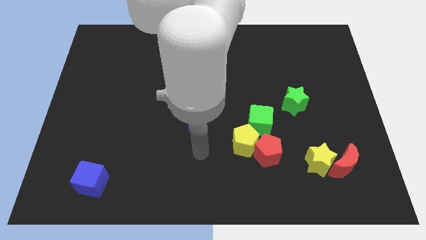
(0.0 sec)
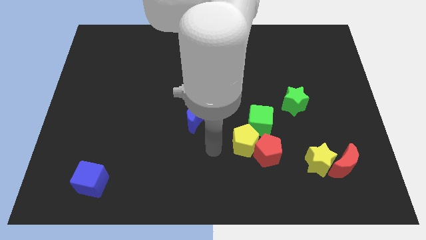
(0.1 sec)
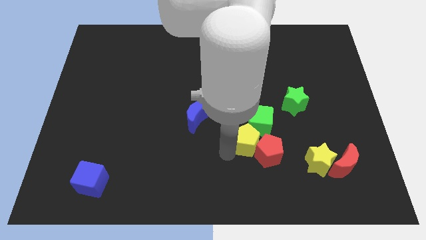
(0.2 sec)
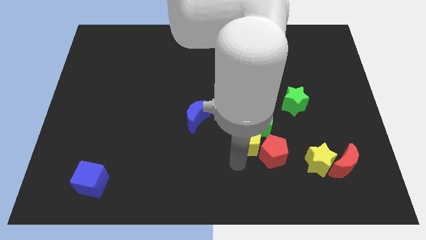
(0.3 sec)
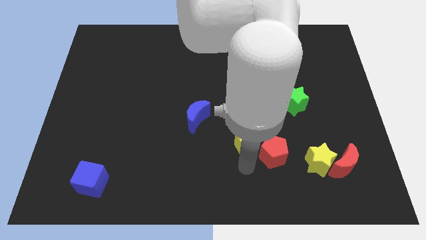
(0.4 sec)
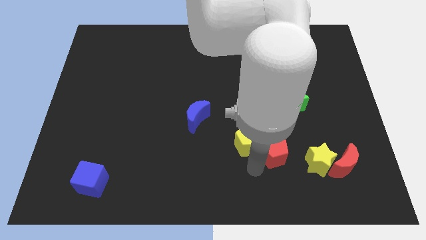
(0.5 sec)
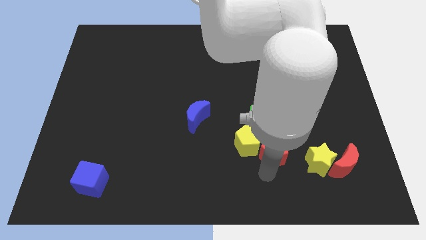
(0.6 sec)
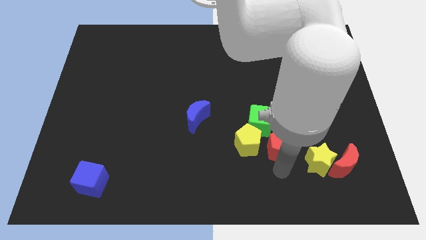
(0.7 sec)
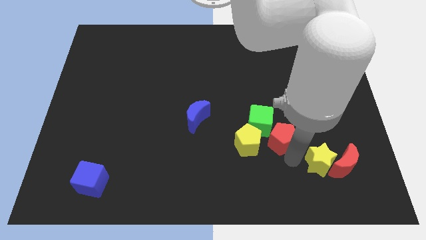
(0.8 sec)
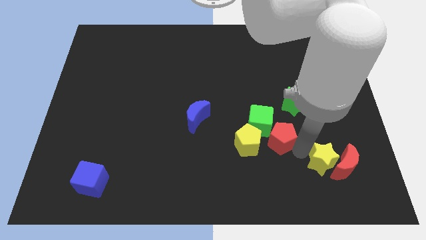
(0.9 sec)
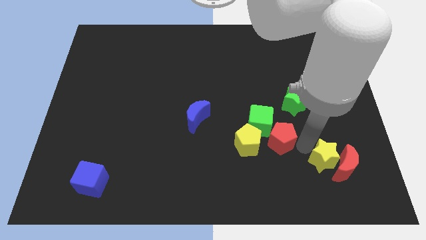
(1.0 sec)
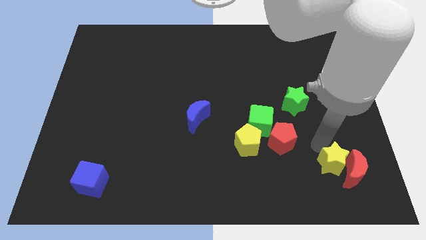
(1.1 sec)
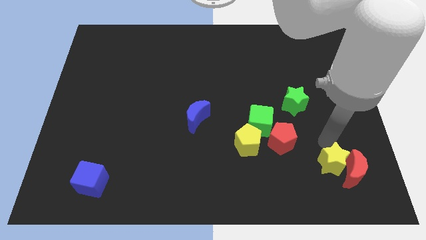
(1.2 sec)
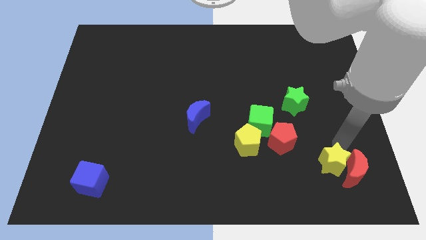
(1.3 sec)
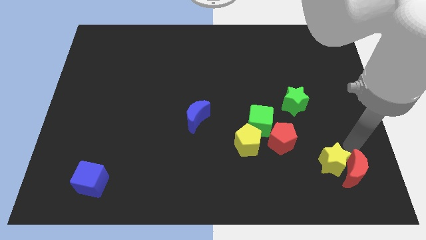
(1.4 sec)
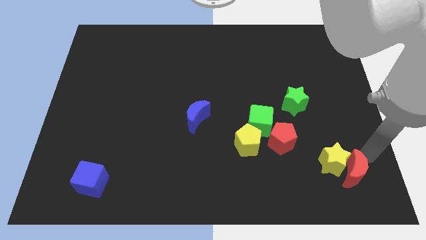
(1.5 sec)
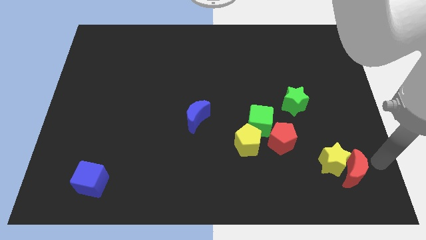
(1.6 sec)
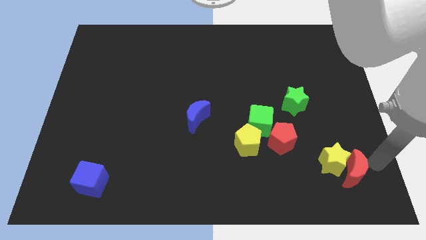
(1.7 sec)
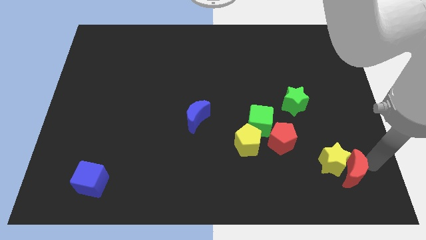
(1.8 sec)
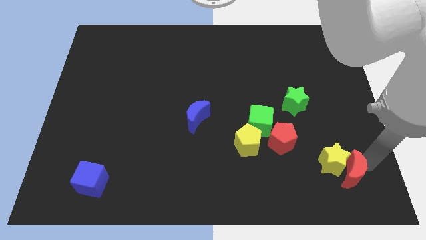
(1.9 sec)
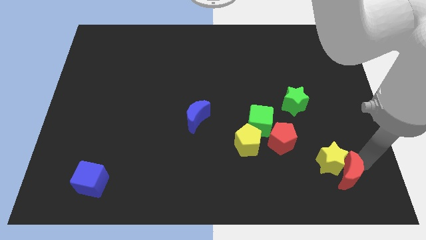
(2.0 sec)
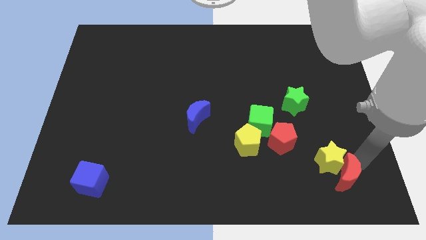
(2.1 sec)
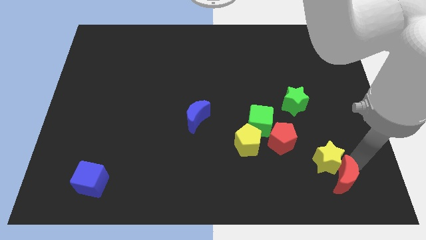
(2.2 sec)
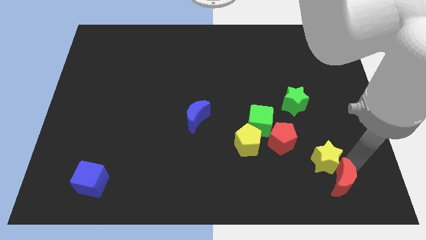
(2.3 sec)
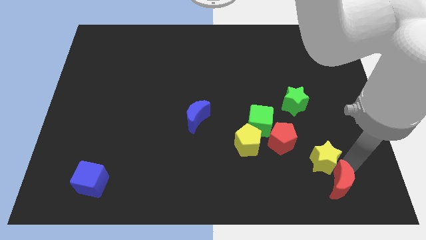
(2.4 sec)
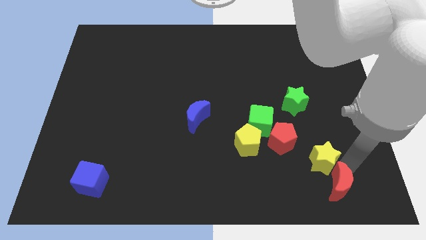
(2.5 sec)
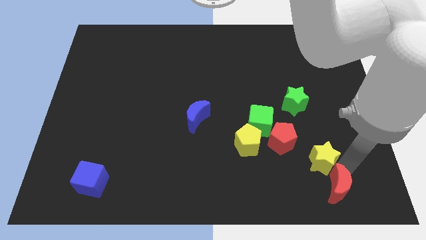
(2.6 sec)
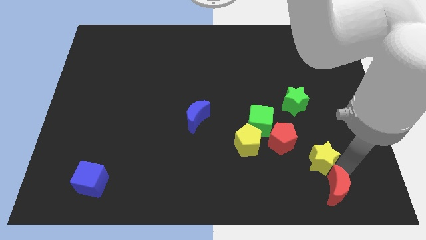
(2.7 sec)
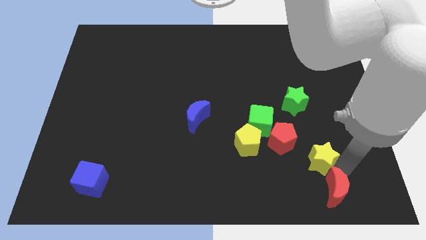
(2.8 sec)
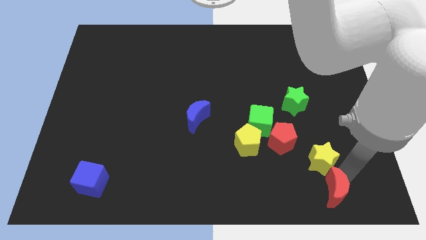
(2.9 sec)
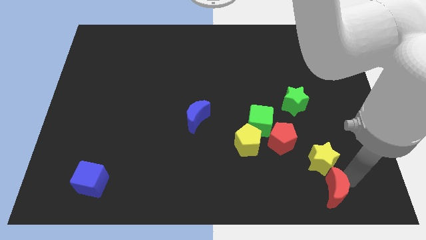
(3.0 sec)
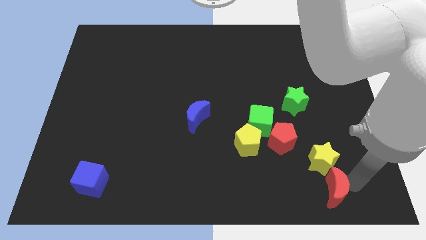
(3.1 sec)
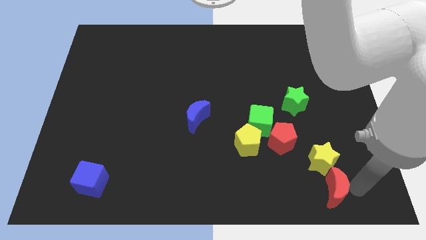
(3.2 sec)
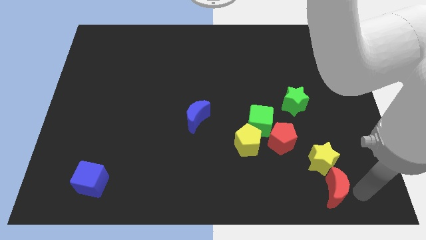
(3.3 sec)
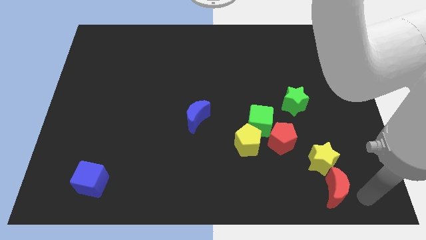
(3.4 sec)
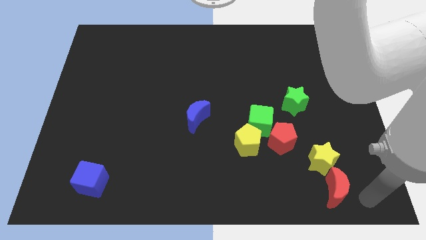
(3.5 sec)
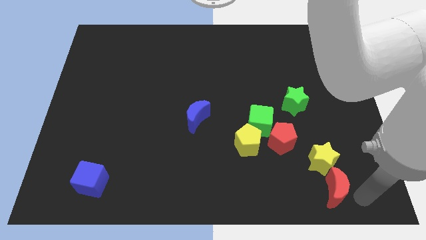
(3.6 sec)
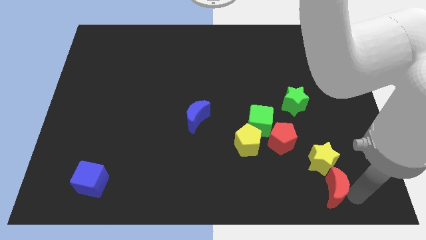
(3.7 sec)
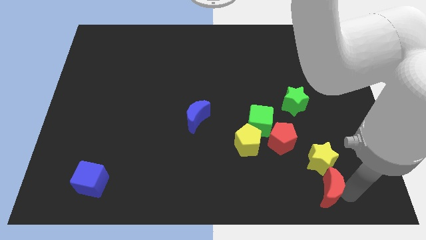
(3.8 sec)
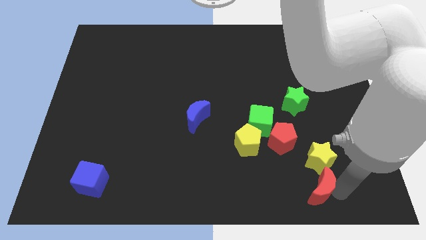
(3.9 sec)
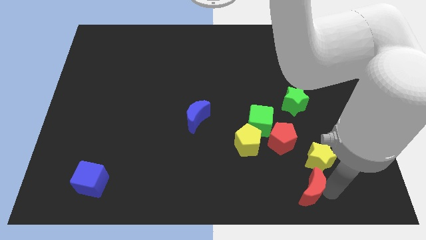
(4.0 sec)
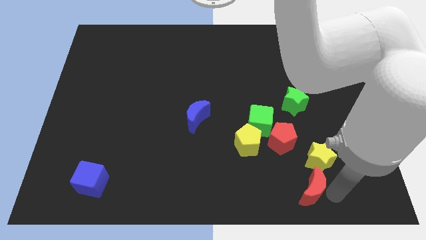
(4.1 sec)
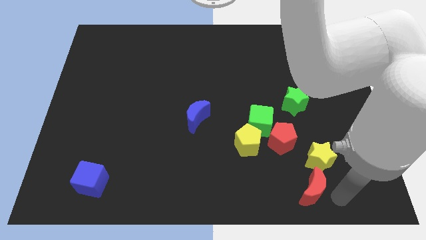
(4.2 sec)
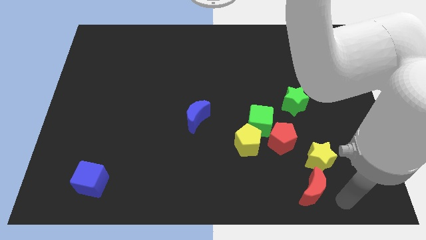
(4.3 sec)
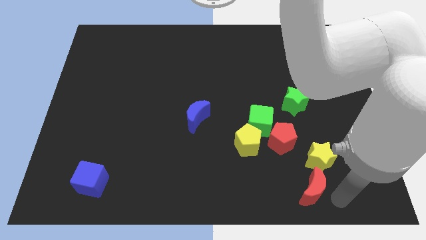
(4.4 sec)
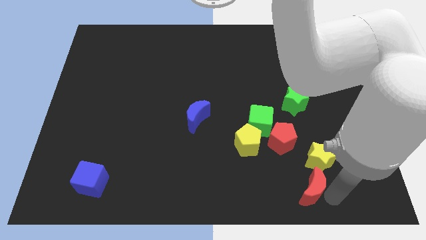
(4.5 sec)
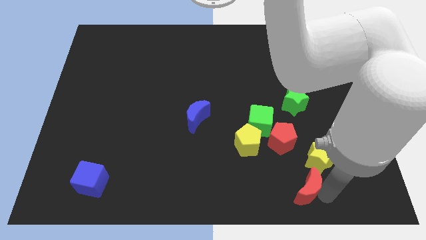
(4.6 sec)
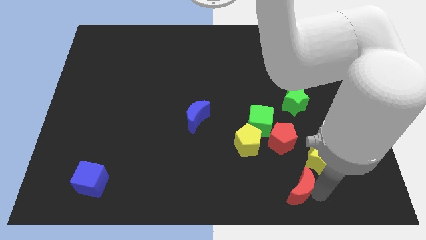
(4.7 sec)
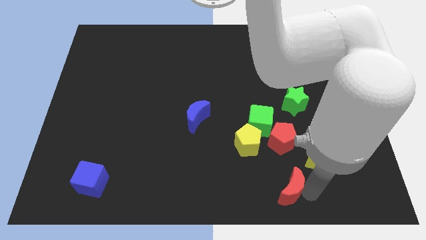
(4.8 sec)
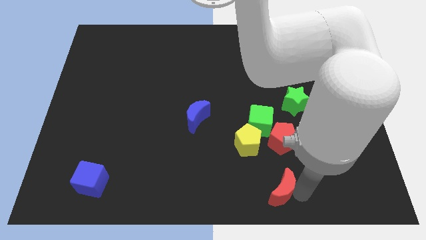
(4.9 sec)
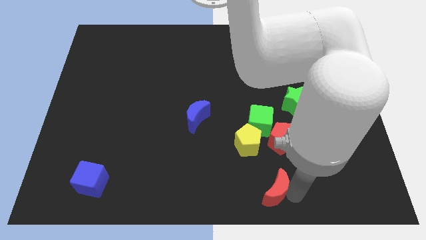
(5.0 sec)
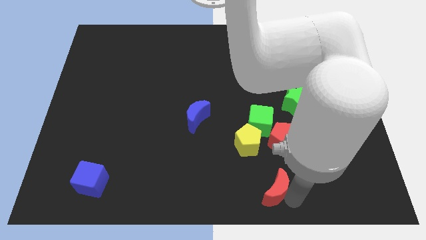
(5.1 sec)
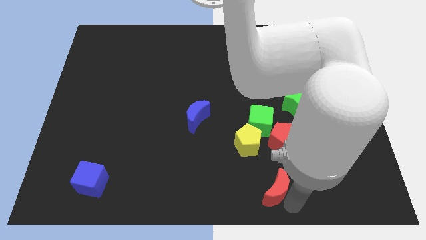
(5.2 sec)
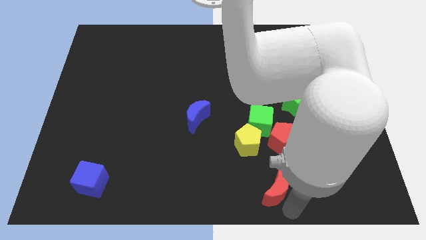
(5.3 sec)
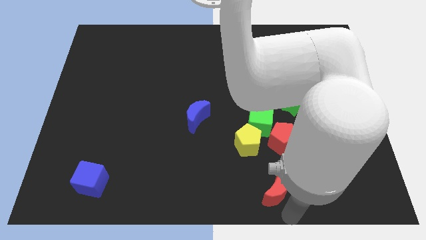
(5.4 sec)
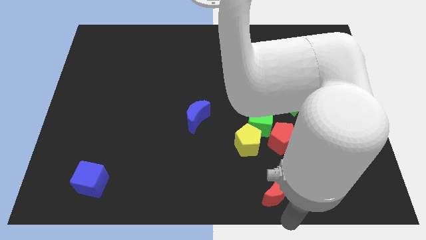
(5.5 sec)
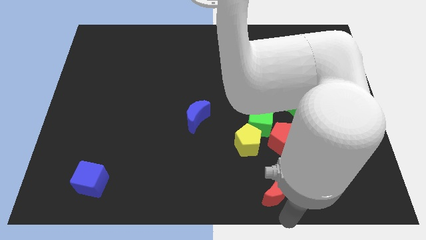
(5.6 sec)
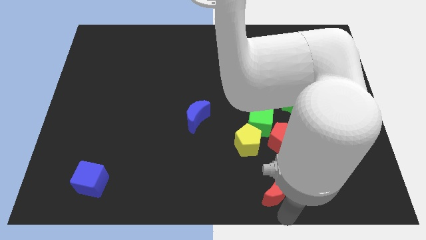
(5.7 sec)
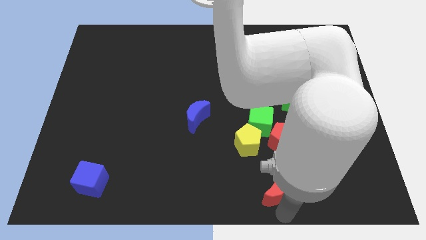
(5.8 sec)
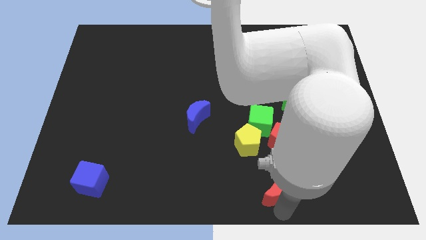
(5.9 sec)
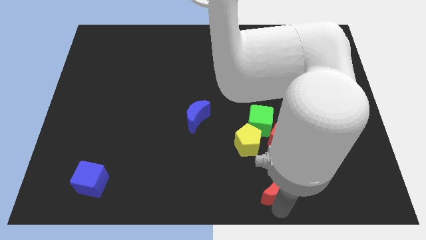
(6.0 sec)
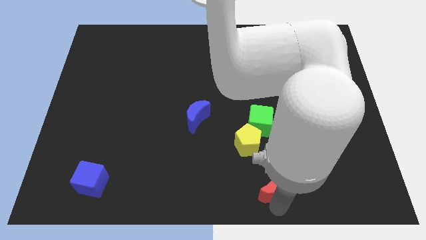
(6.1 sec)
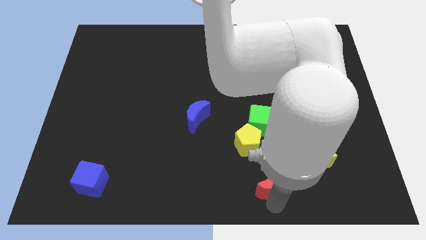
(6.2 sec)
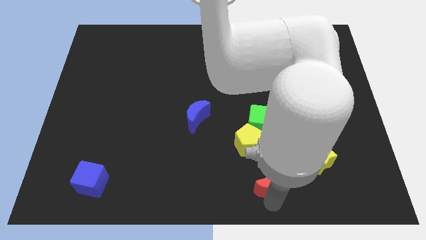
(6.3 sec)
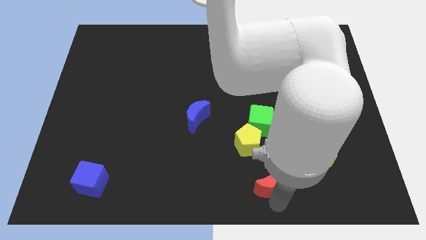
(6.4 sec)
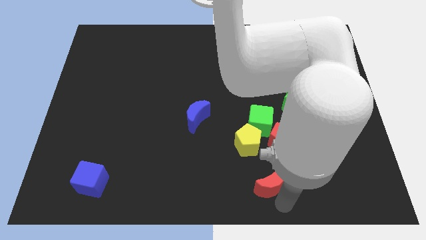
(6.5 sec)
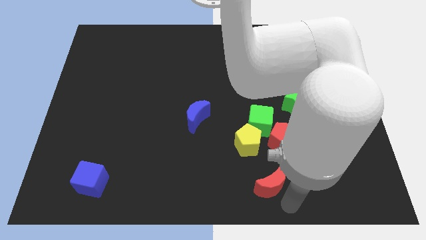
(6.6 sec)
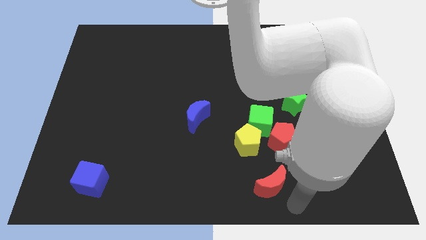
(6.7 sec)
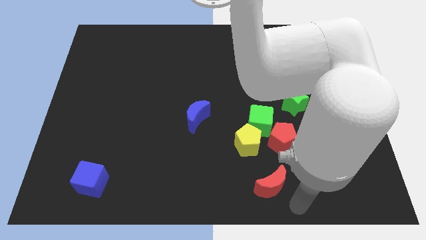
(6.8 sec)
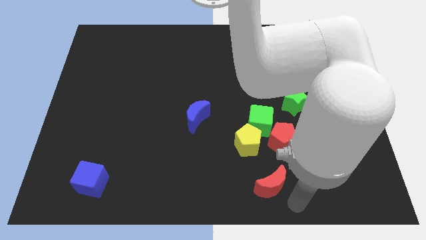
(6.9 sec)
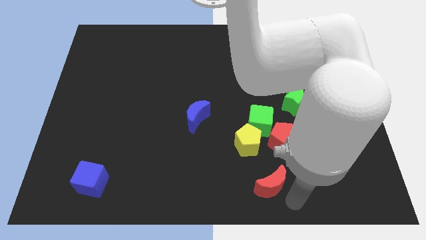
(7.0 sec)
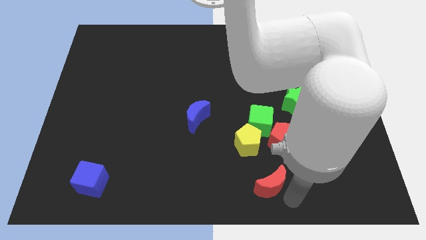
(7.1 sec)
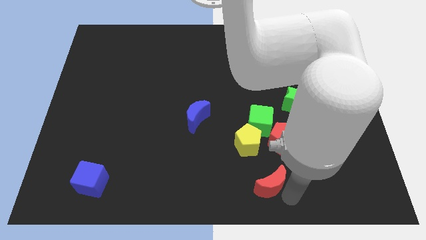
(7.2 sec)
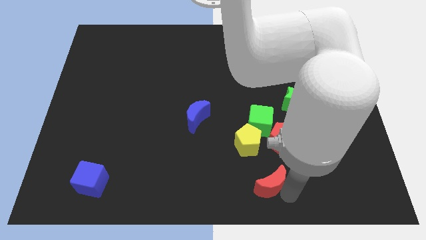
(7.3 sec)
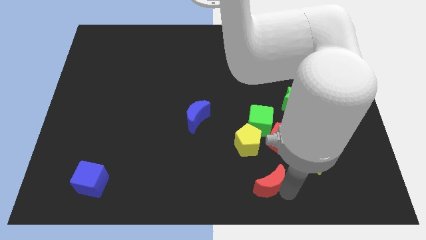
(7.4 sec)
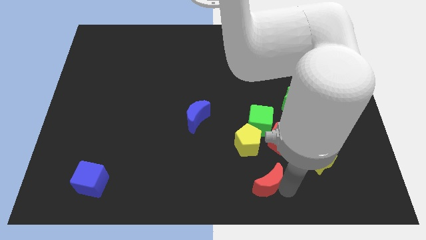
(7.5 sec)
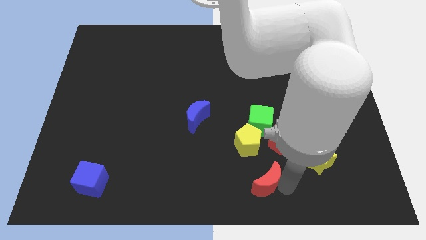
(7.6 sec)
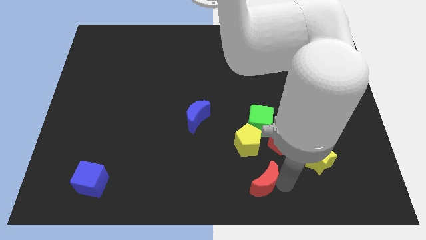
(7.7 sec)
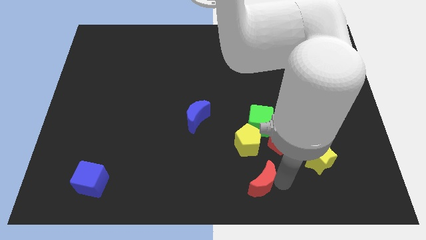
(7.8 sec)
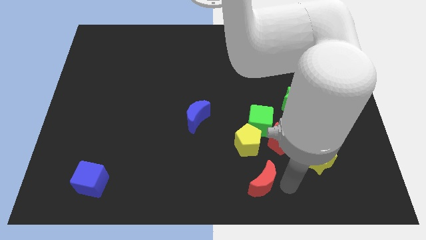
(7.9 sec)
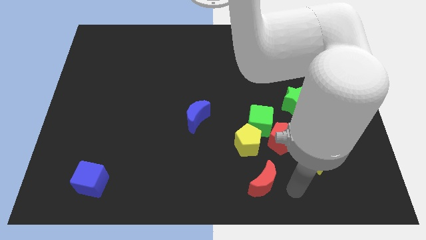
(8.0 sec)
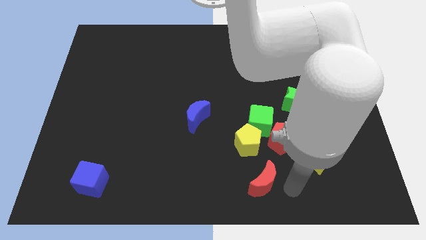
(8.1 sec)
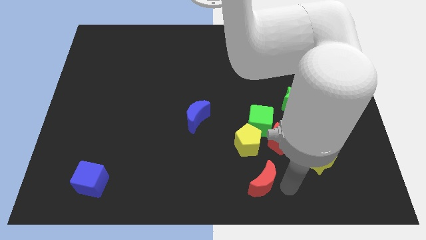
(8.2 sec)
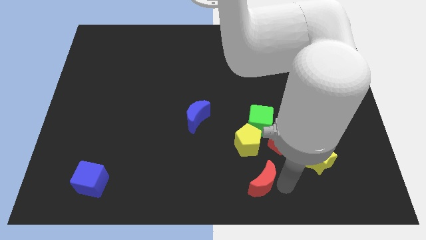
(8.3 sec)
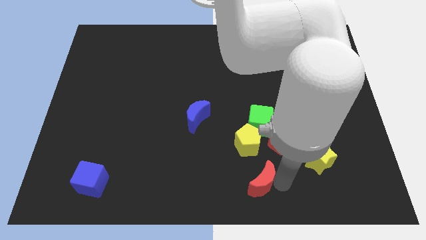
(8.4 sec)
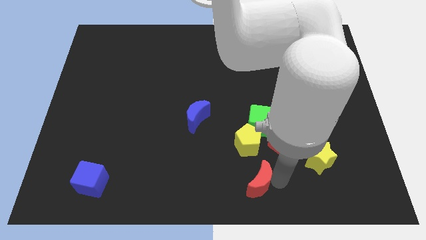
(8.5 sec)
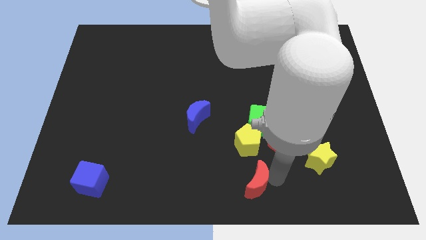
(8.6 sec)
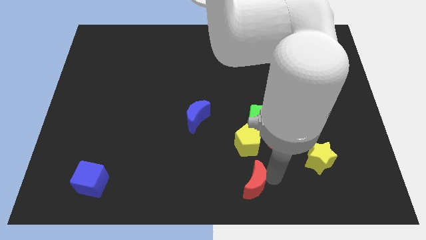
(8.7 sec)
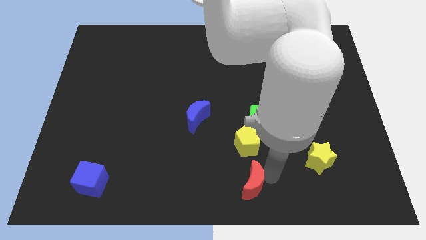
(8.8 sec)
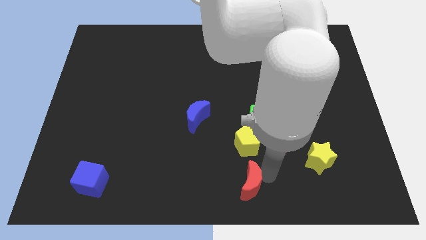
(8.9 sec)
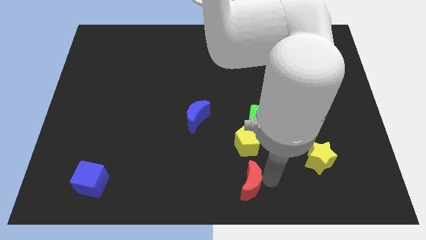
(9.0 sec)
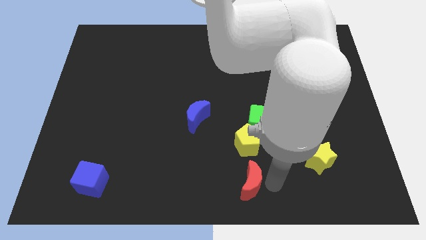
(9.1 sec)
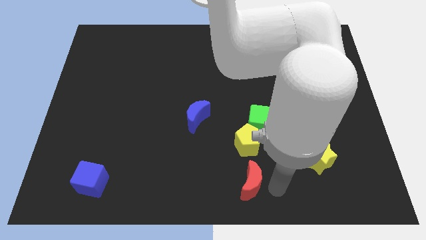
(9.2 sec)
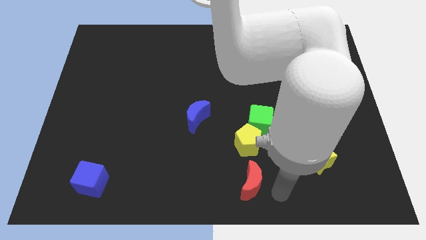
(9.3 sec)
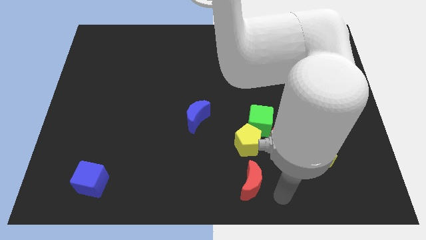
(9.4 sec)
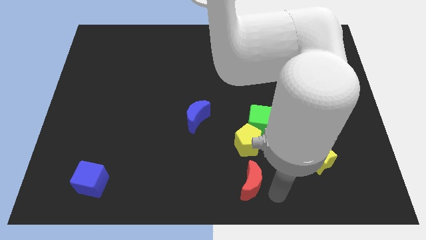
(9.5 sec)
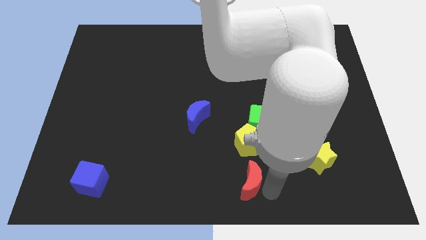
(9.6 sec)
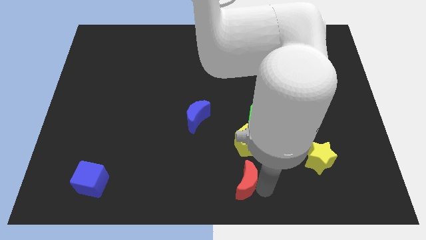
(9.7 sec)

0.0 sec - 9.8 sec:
slide the red moon to the left
